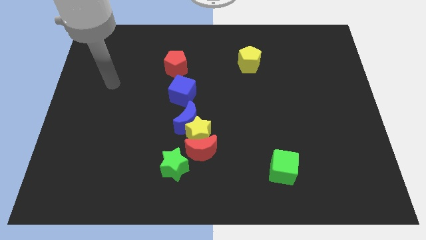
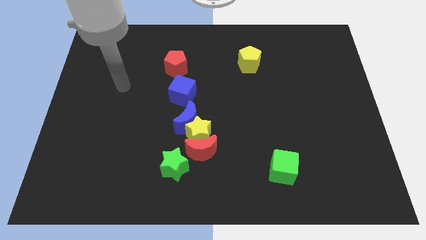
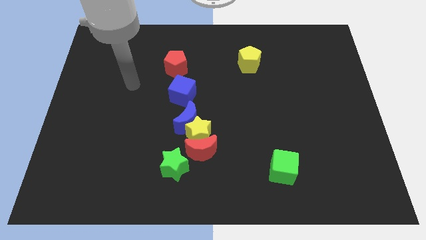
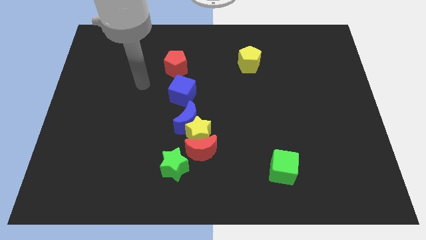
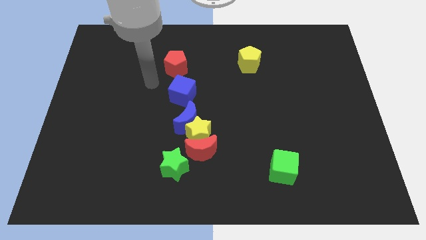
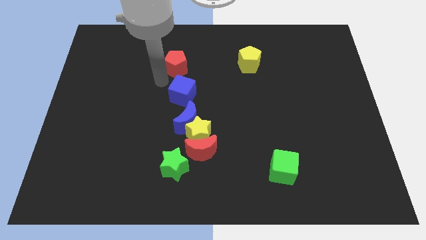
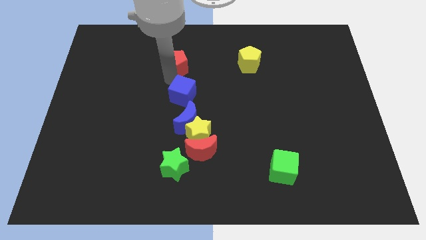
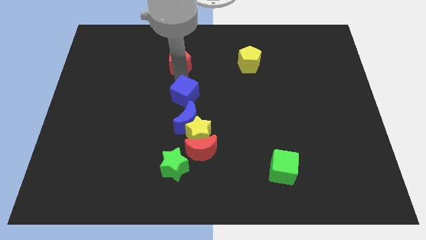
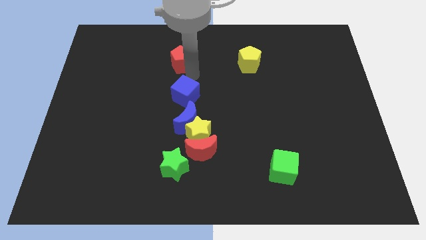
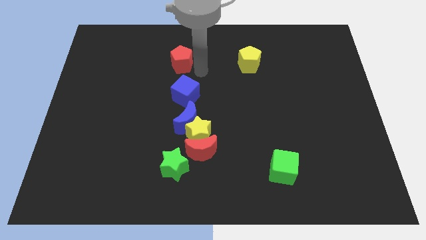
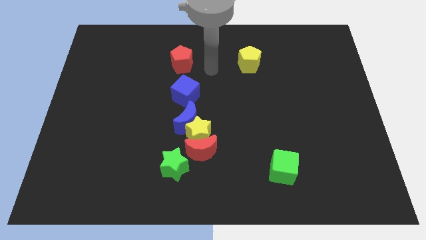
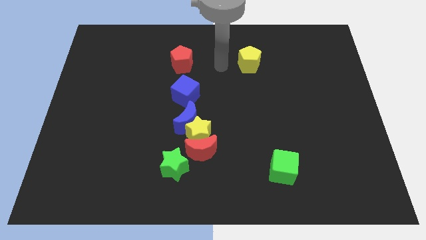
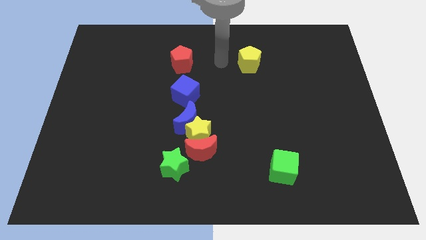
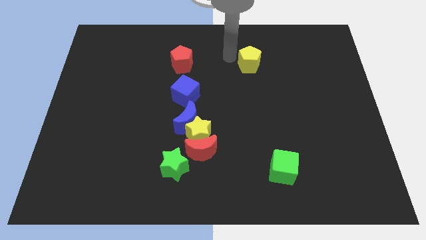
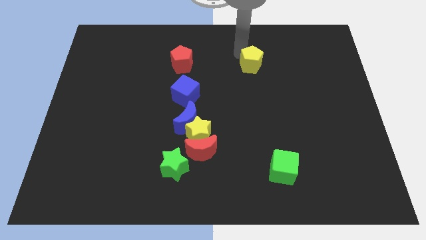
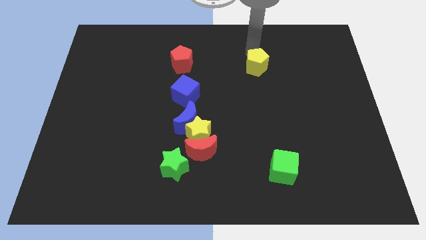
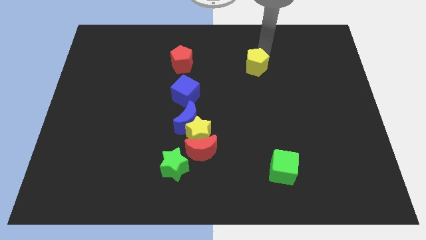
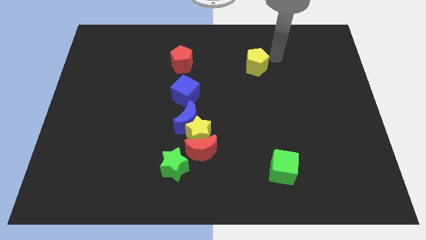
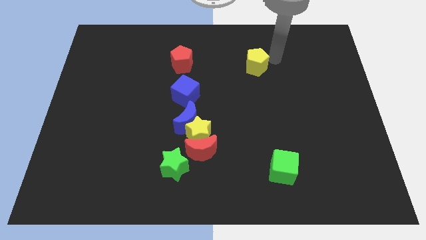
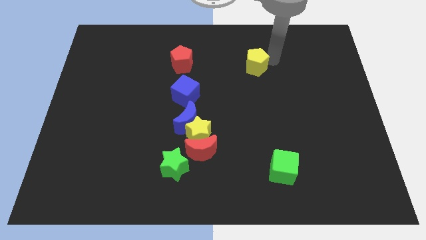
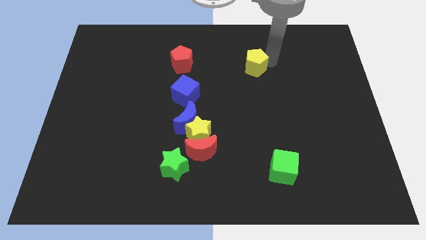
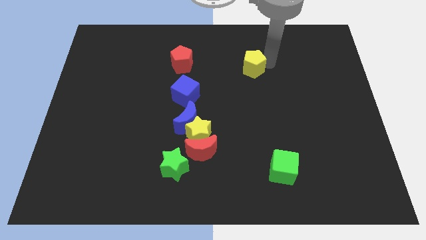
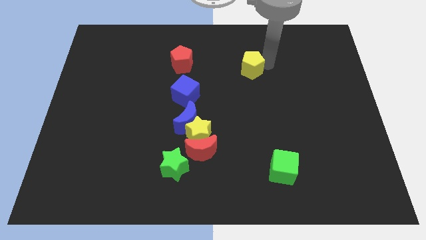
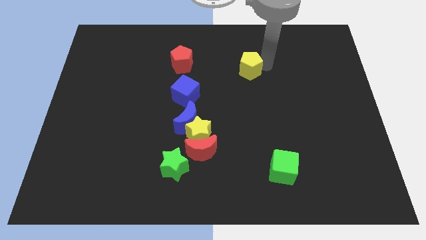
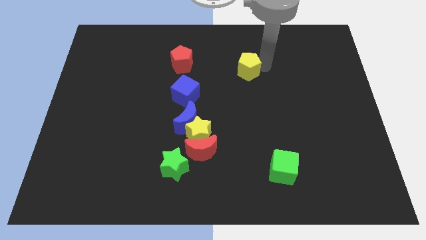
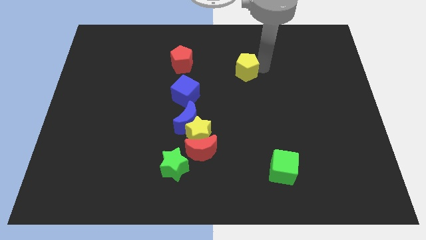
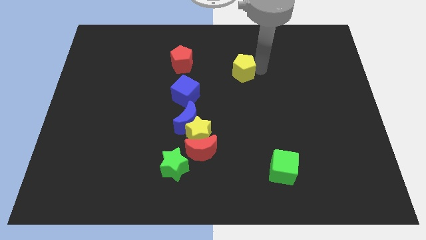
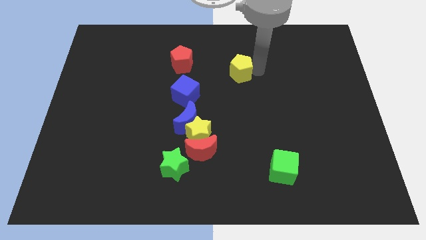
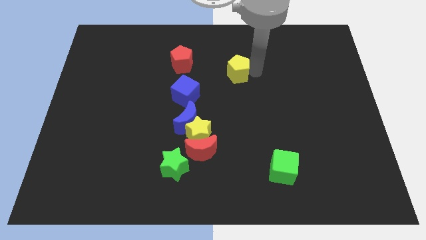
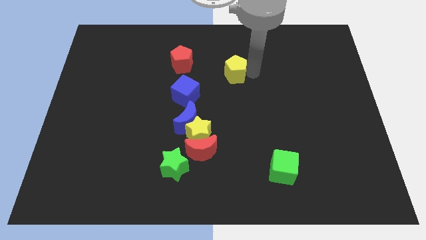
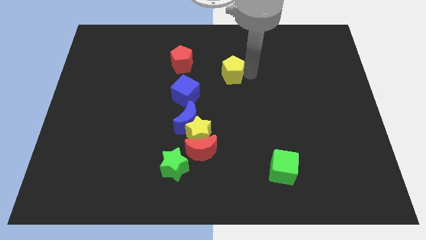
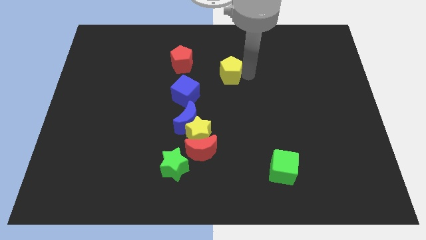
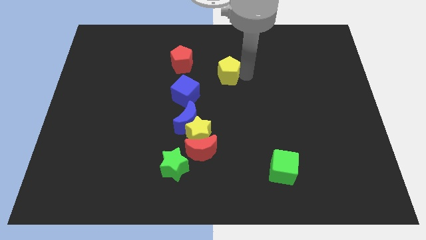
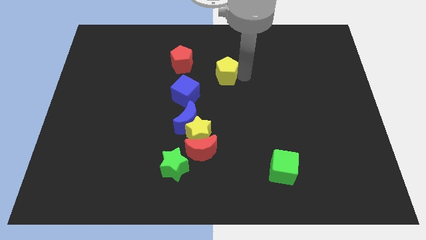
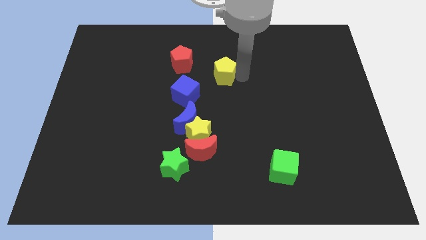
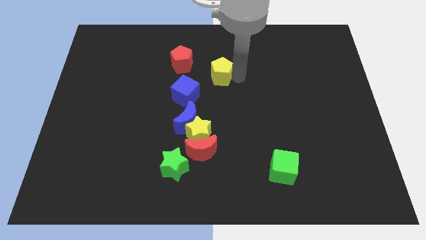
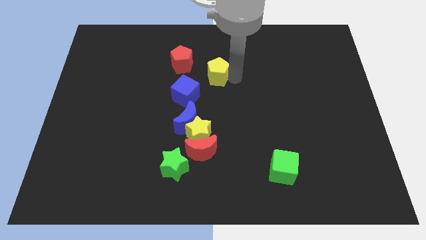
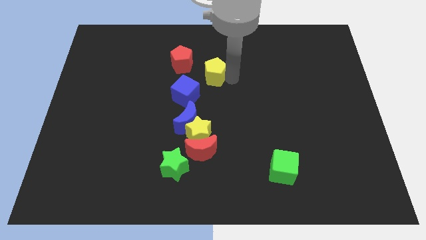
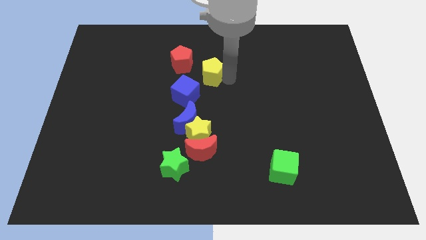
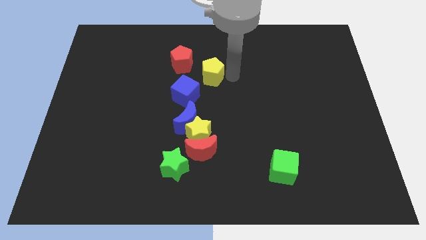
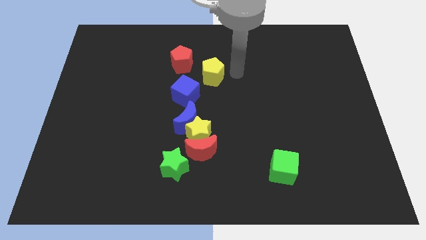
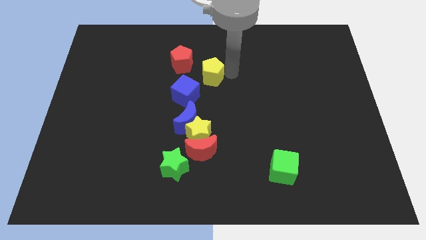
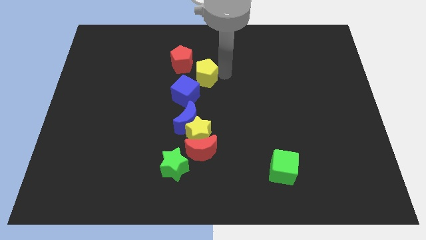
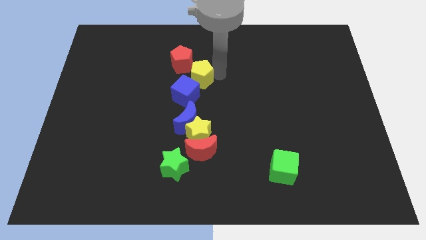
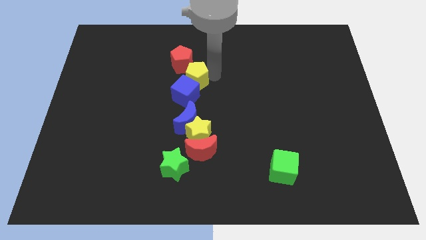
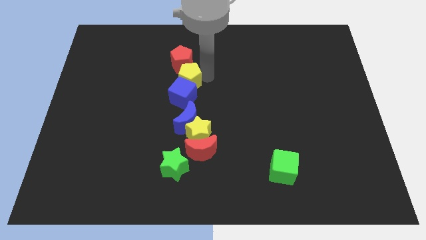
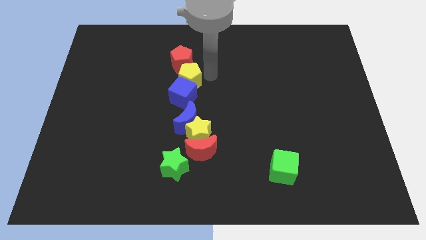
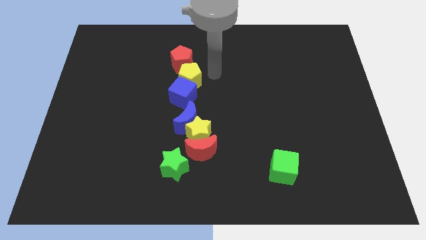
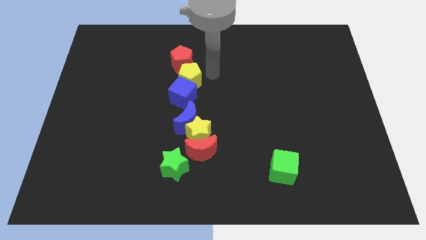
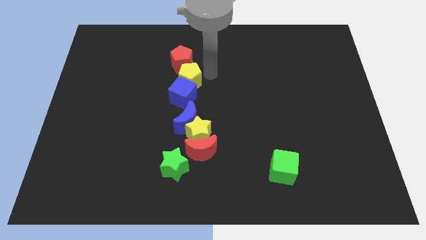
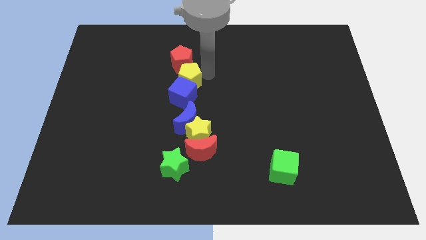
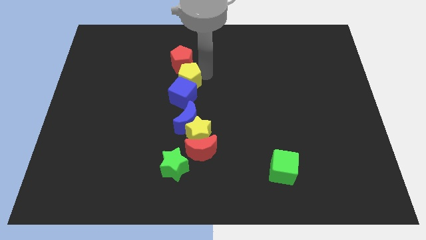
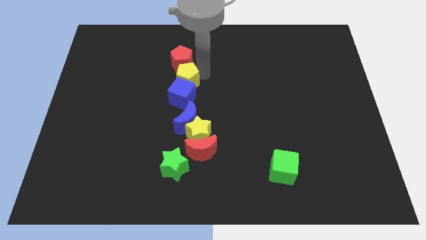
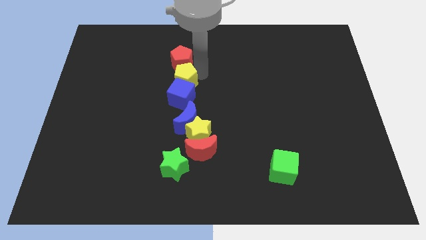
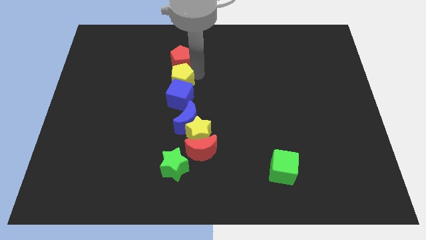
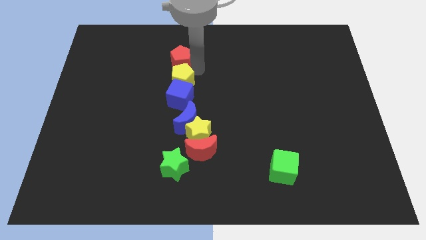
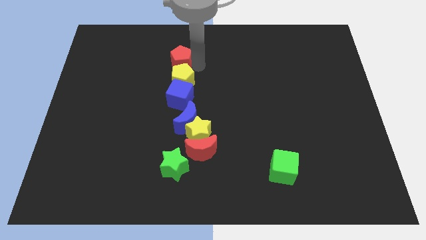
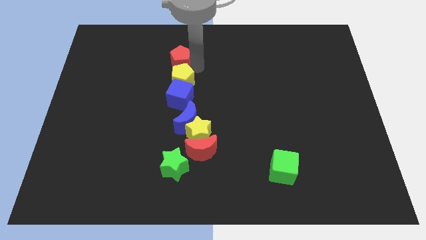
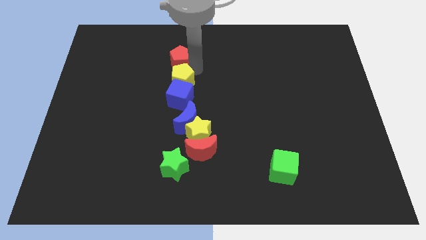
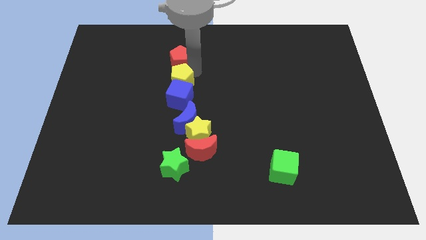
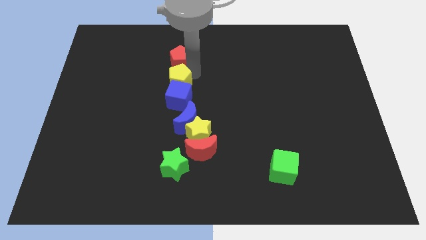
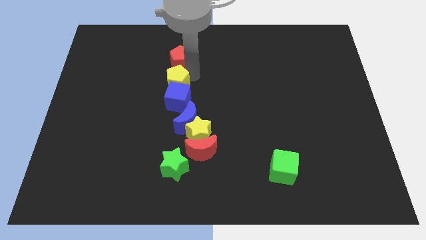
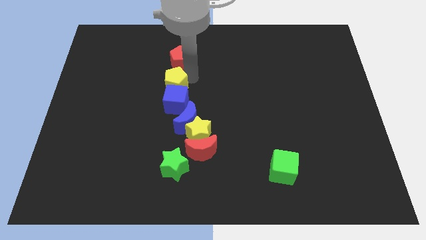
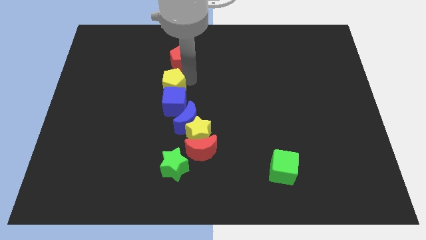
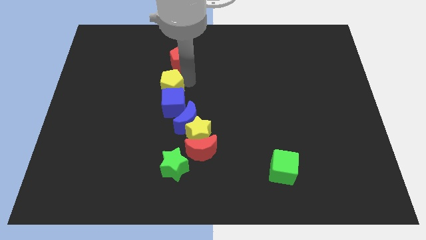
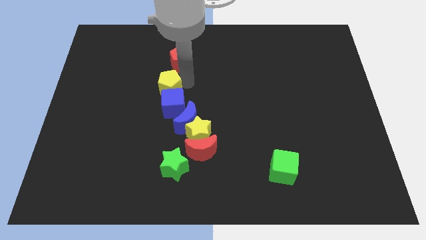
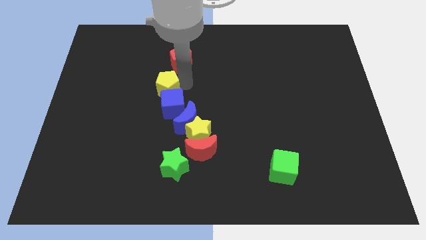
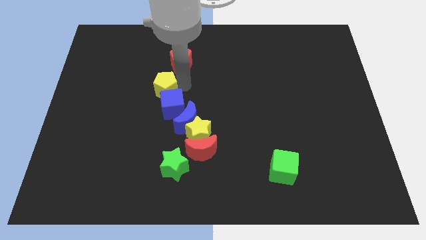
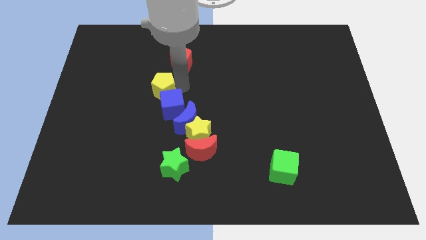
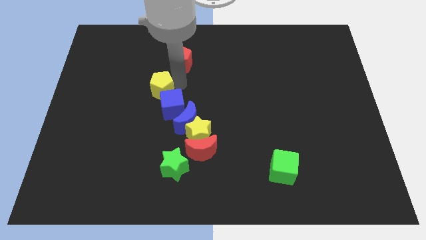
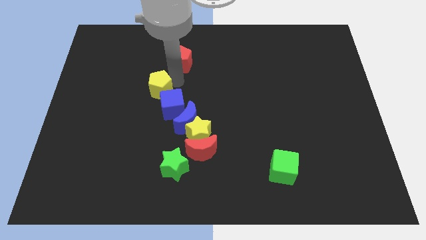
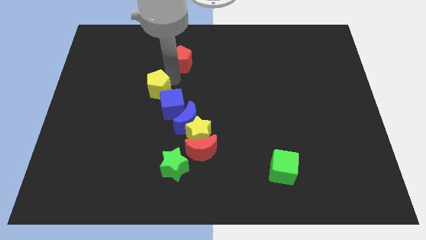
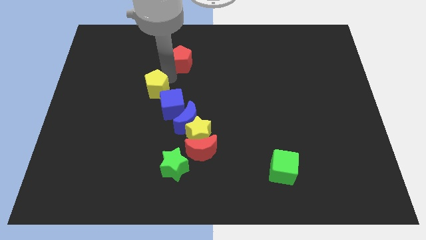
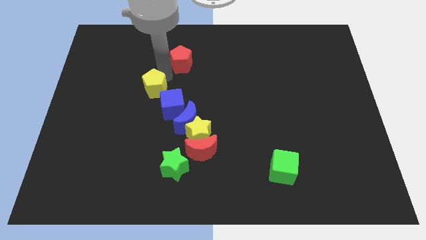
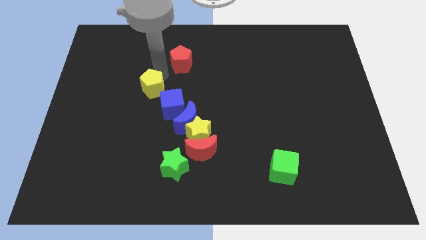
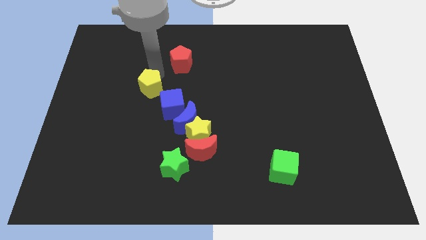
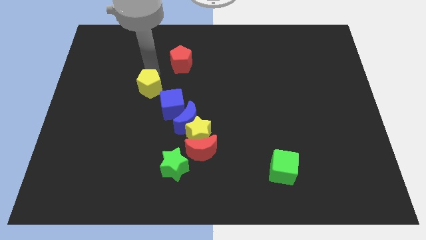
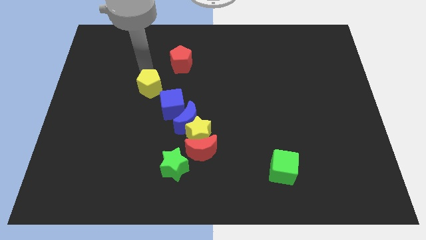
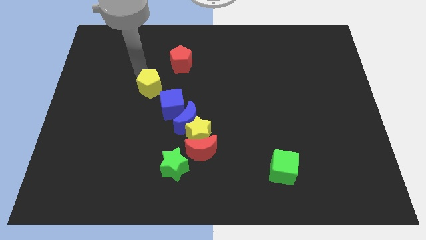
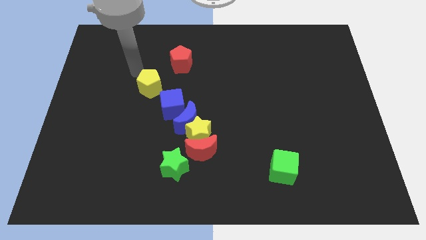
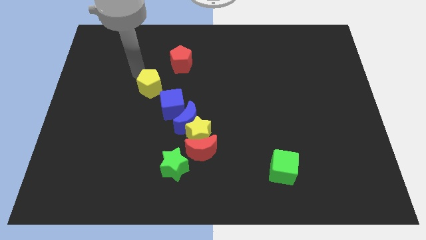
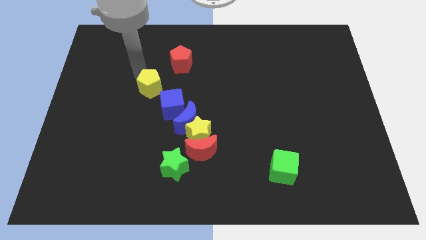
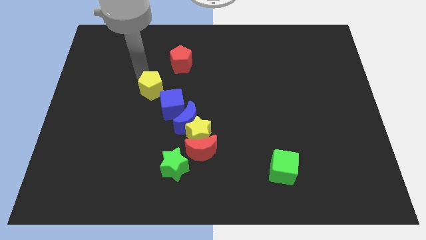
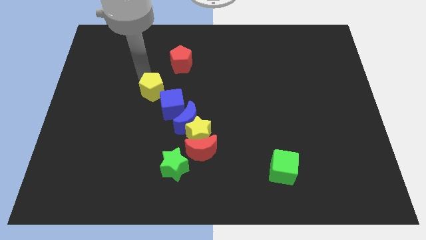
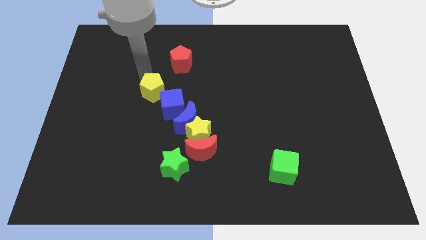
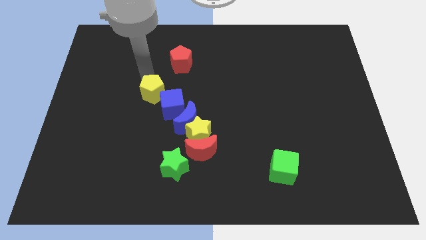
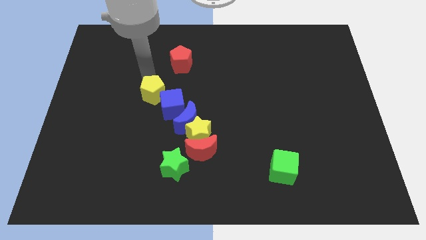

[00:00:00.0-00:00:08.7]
move the yellow pentagon diagonally downwards and left
